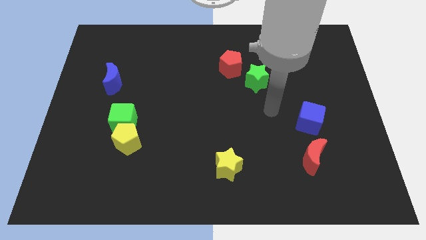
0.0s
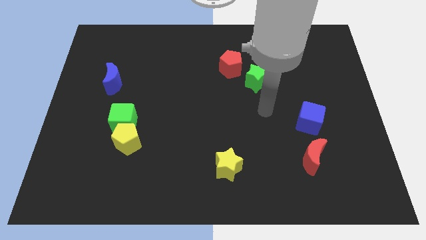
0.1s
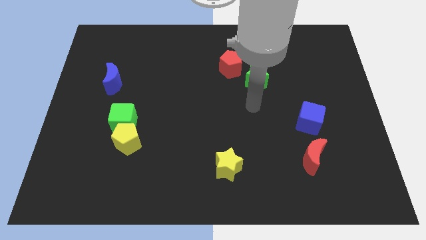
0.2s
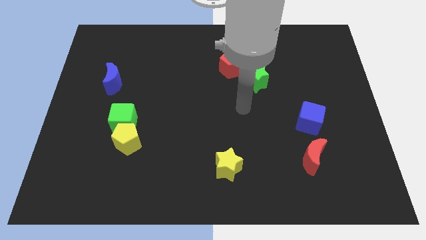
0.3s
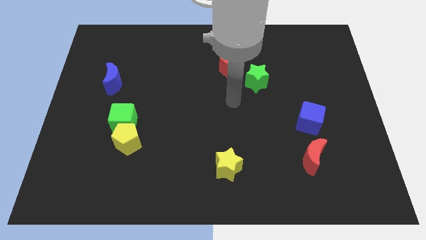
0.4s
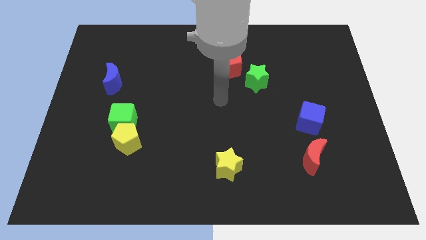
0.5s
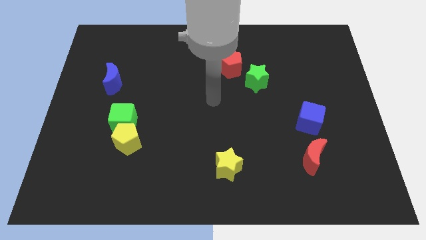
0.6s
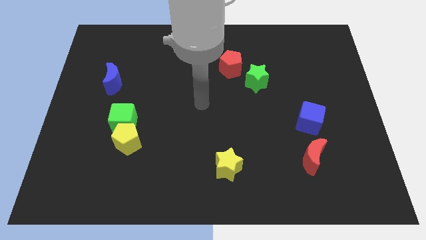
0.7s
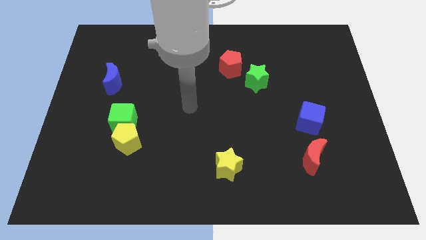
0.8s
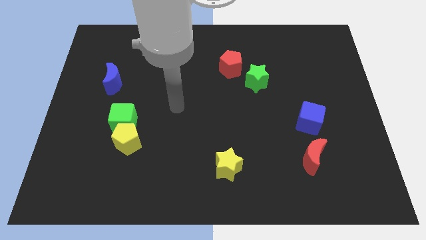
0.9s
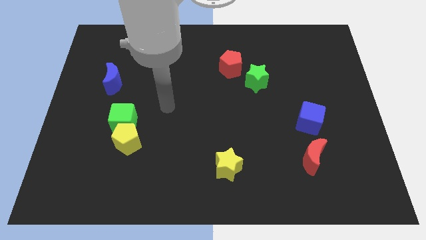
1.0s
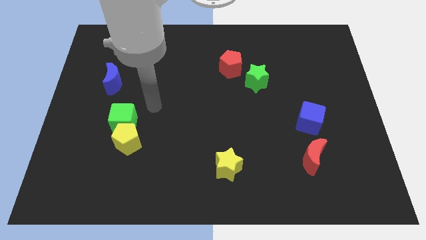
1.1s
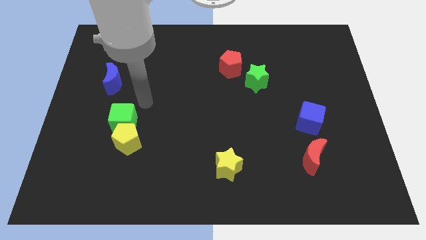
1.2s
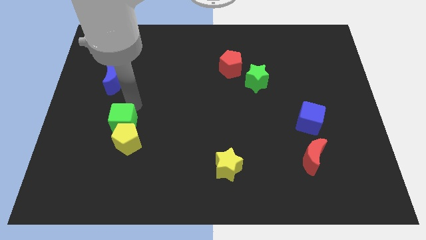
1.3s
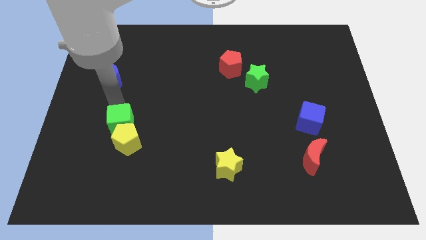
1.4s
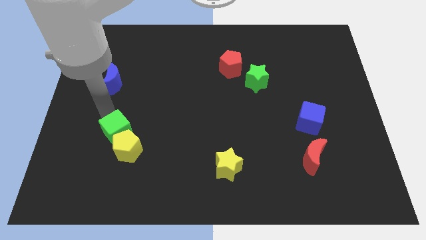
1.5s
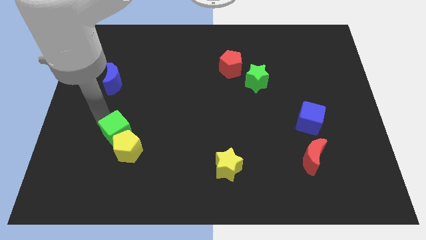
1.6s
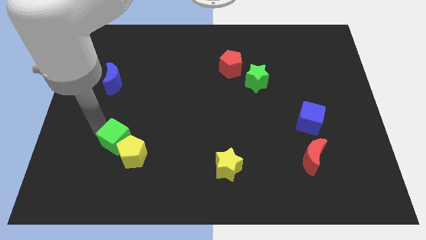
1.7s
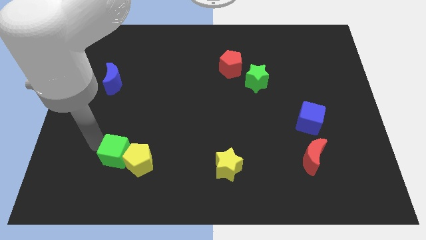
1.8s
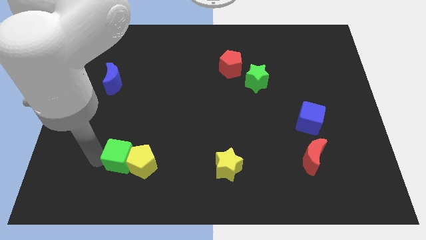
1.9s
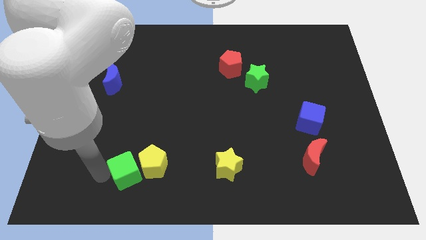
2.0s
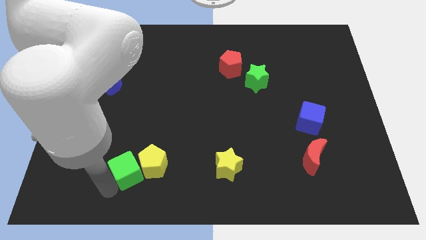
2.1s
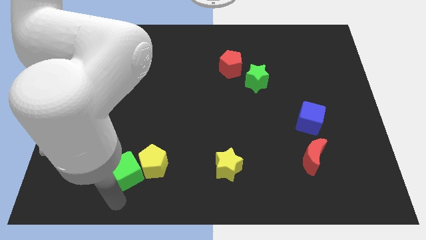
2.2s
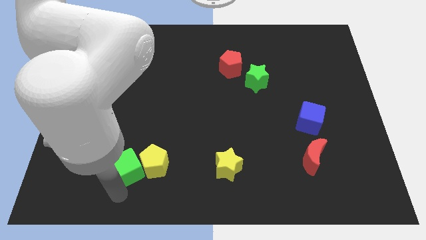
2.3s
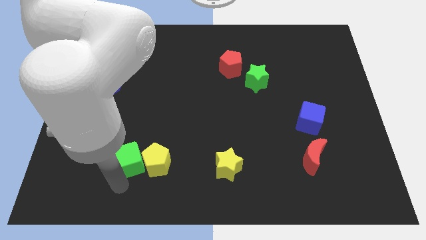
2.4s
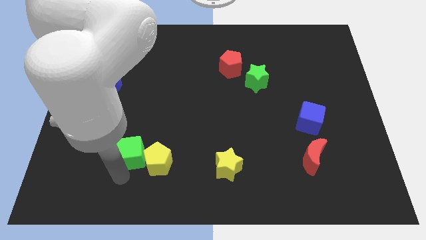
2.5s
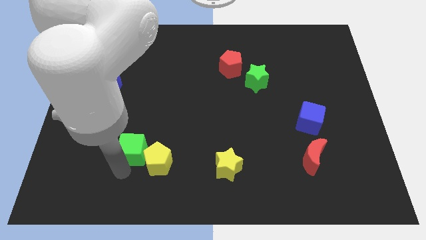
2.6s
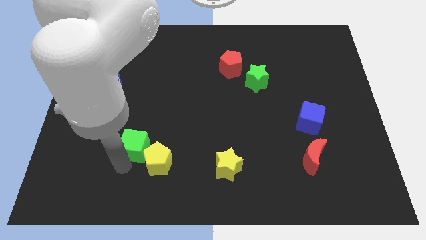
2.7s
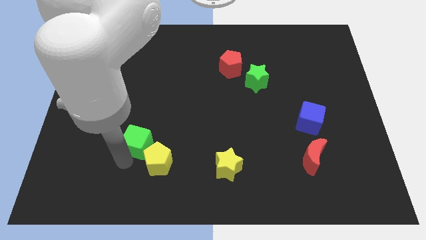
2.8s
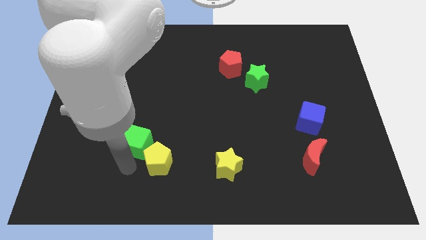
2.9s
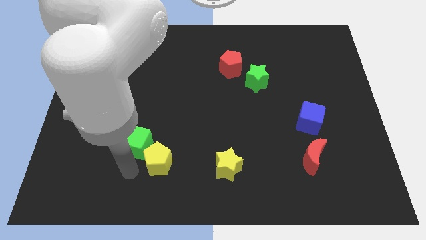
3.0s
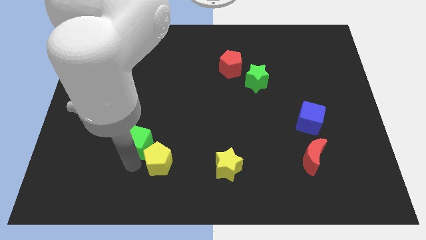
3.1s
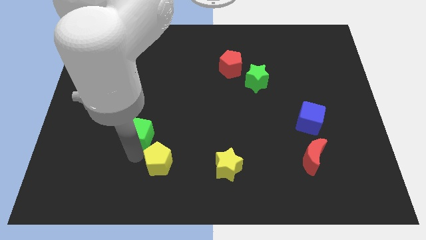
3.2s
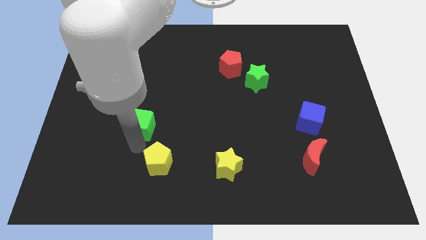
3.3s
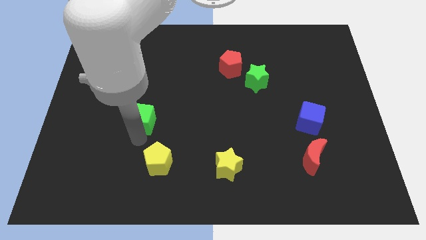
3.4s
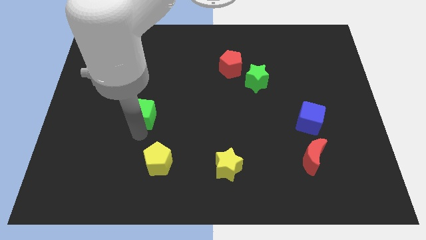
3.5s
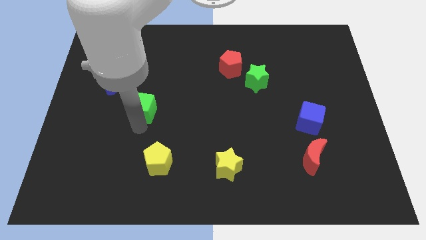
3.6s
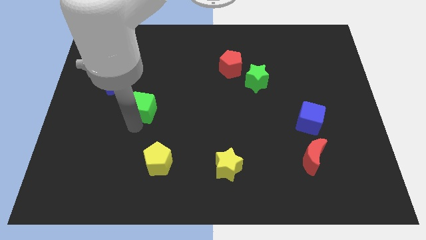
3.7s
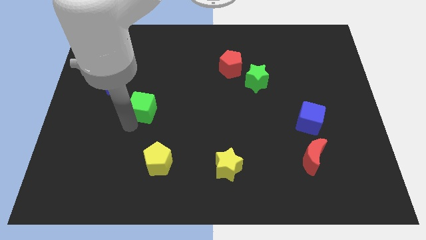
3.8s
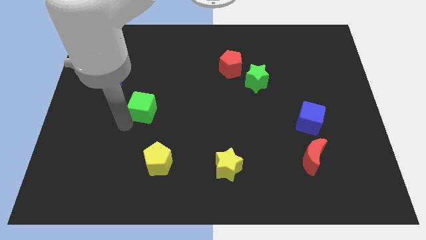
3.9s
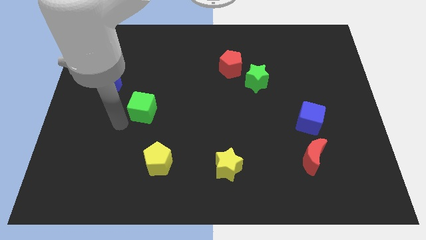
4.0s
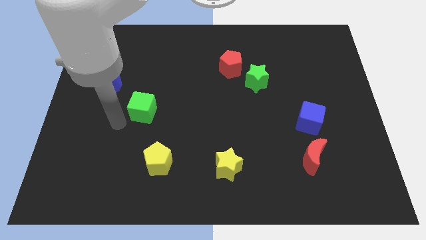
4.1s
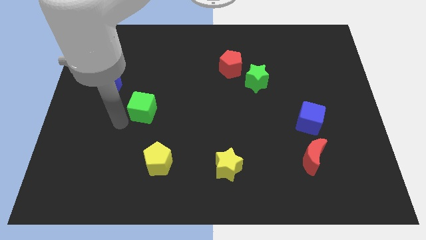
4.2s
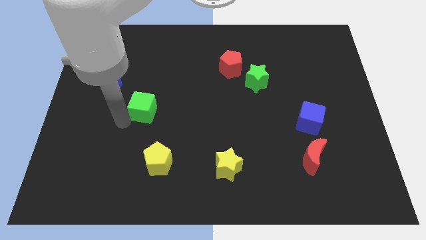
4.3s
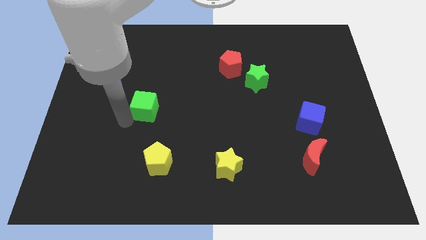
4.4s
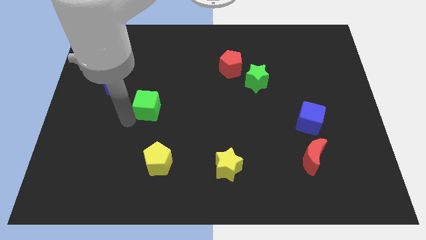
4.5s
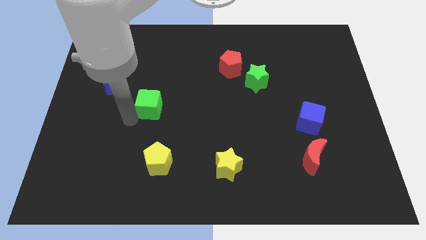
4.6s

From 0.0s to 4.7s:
move the green cube upwards and then right slightly

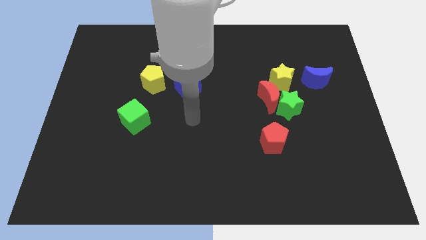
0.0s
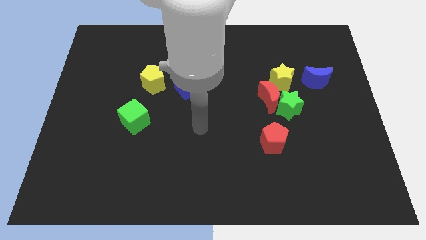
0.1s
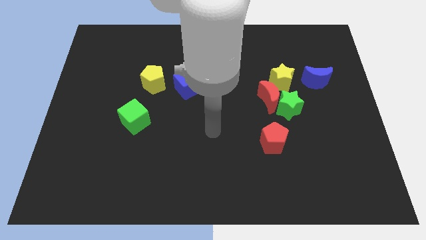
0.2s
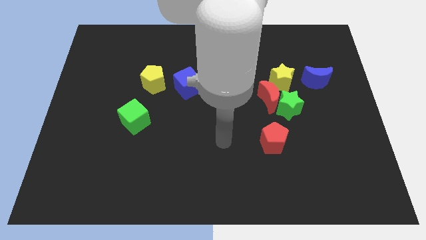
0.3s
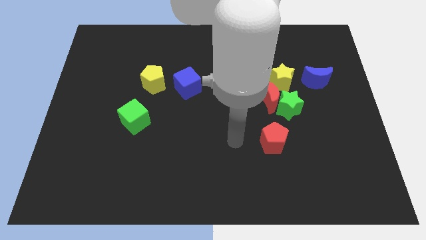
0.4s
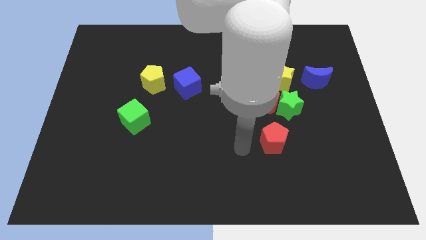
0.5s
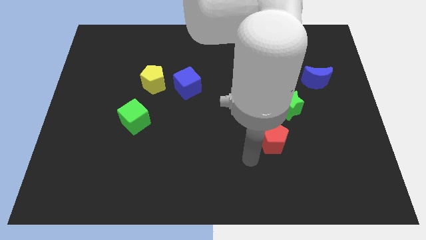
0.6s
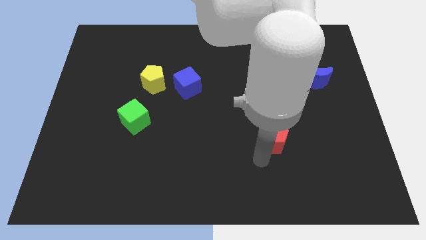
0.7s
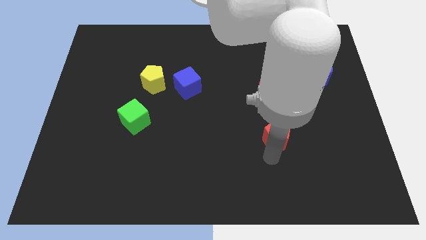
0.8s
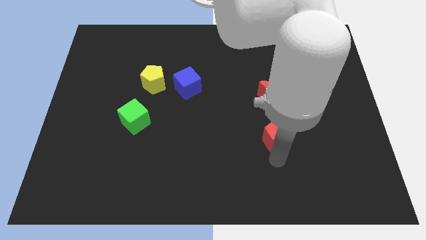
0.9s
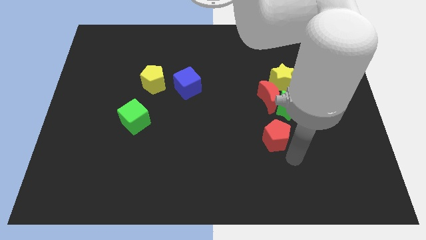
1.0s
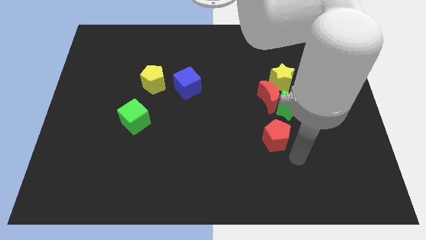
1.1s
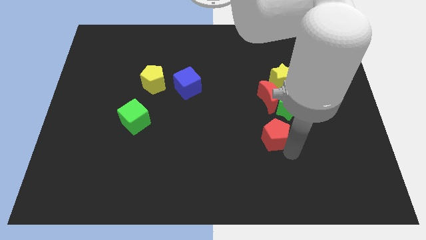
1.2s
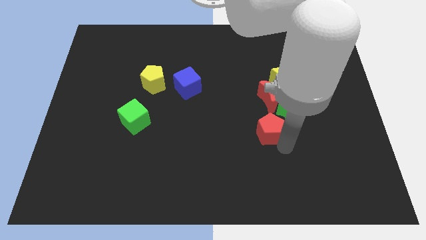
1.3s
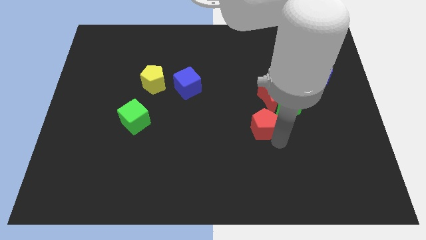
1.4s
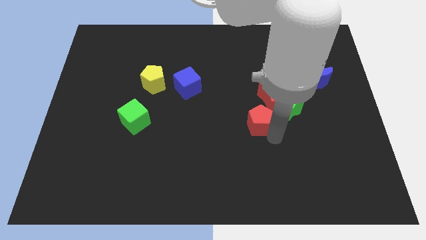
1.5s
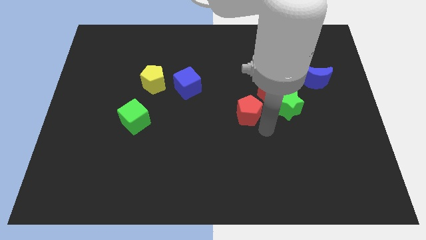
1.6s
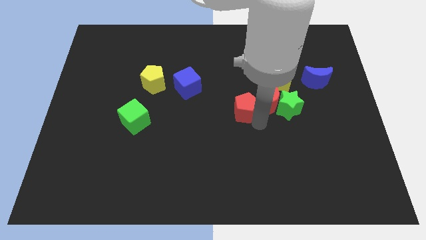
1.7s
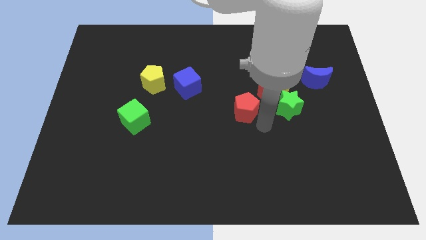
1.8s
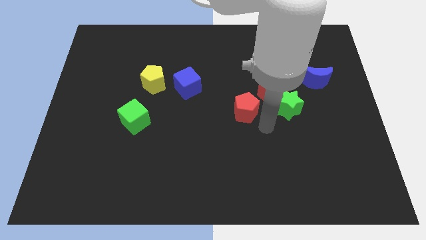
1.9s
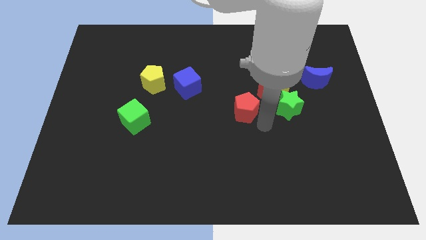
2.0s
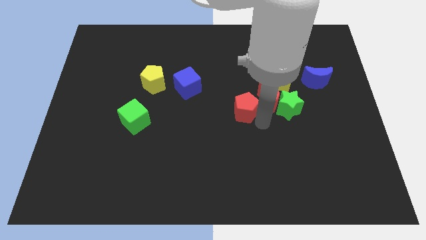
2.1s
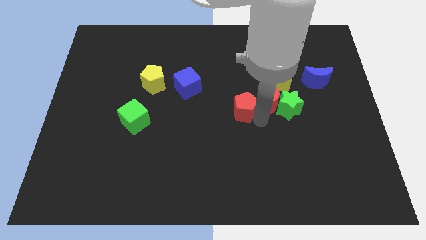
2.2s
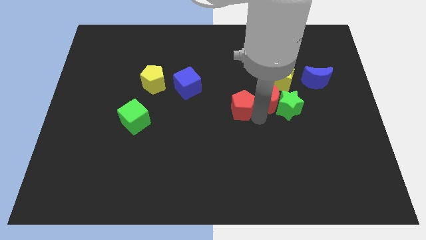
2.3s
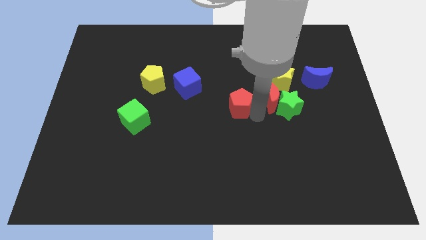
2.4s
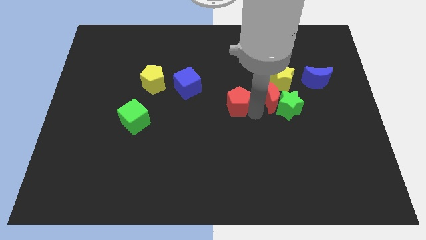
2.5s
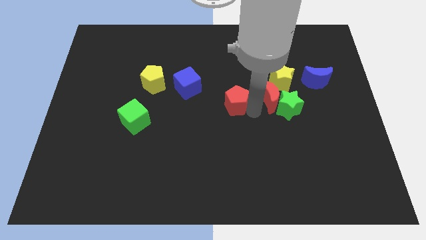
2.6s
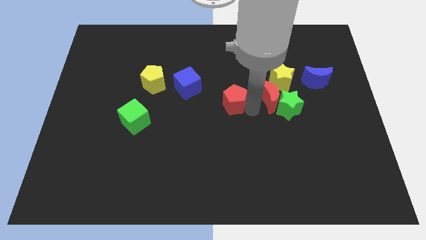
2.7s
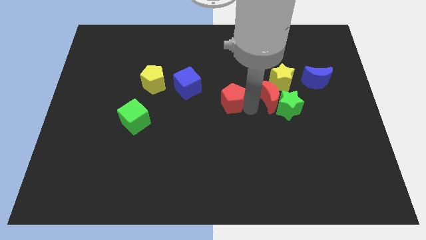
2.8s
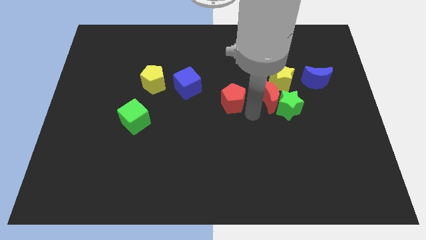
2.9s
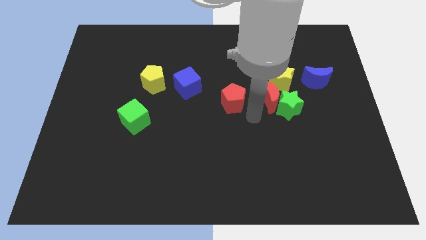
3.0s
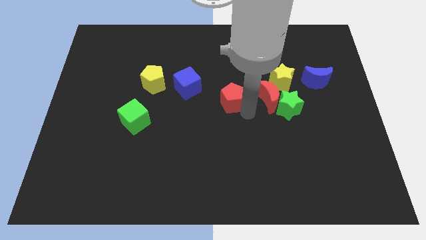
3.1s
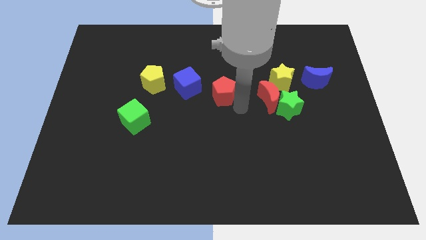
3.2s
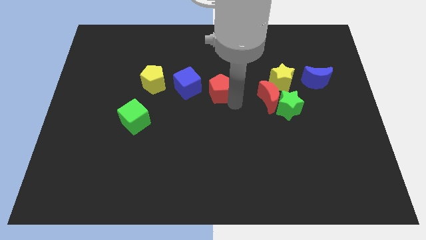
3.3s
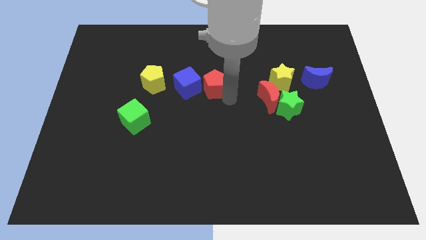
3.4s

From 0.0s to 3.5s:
push the red pentagon upwards and left diagonally

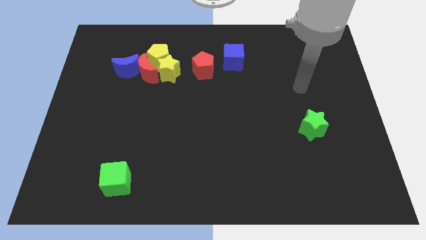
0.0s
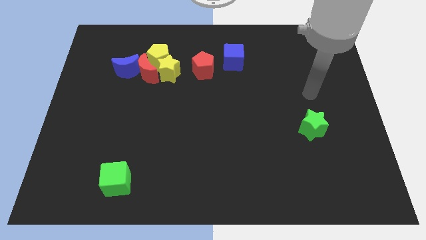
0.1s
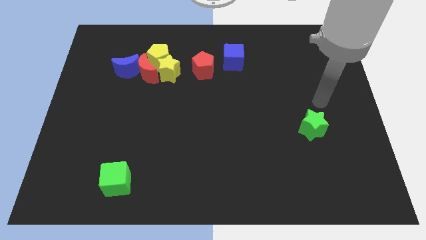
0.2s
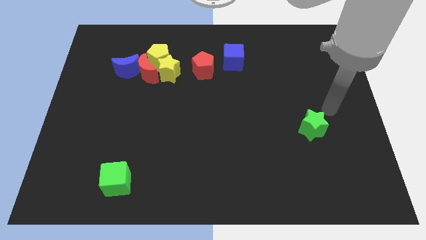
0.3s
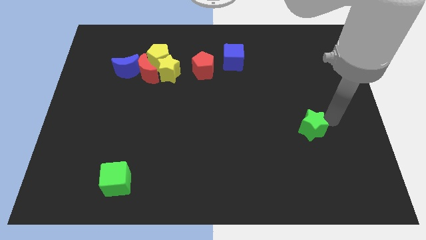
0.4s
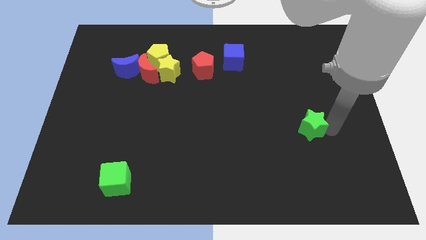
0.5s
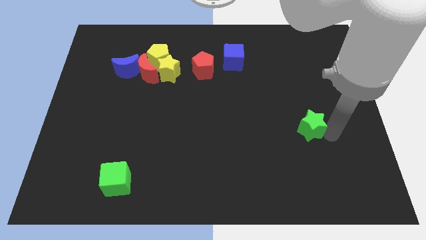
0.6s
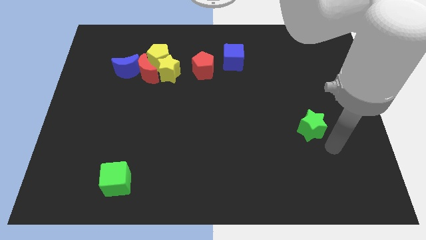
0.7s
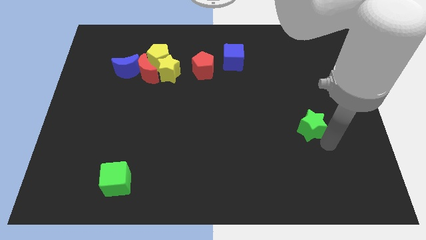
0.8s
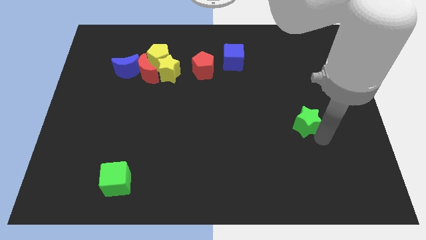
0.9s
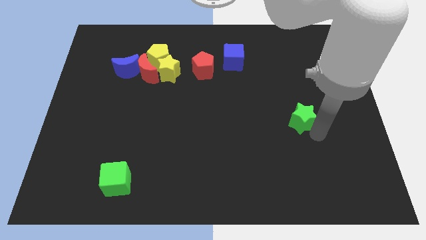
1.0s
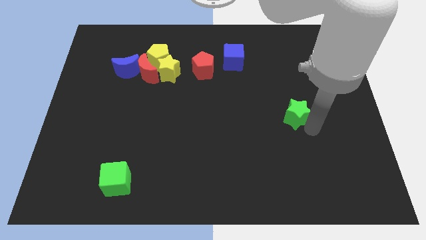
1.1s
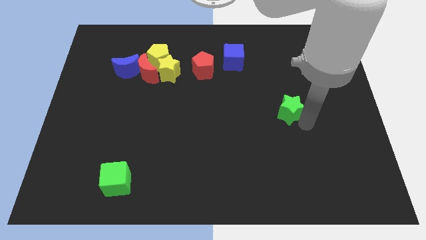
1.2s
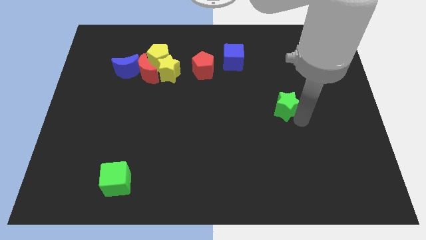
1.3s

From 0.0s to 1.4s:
slide the green star upwards and to the left a little
